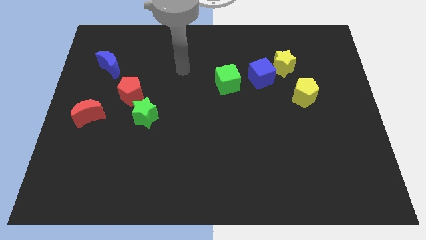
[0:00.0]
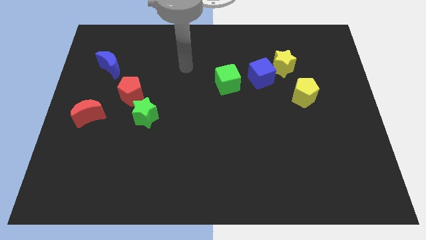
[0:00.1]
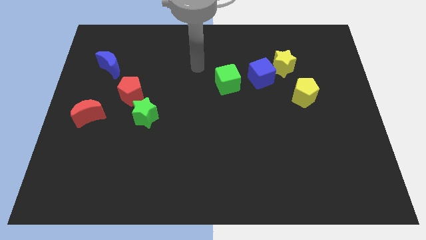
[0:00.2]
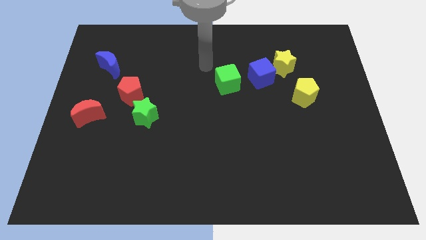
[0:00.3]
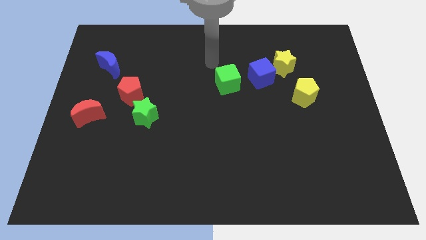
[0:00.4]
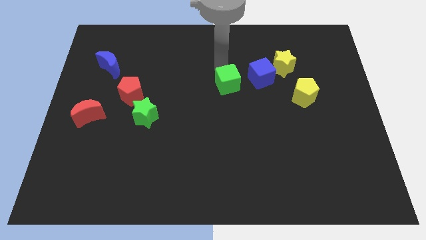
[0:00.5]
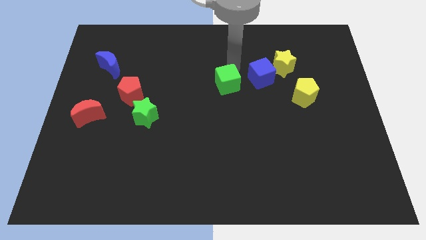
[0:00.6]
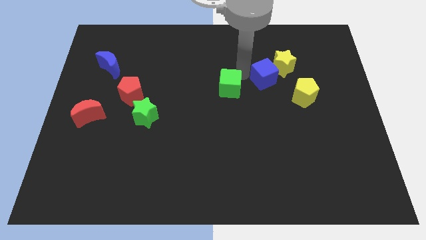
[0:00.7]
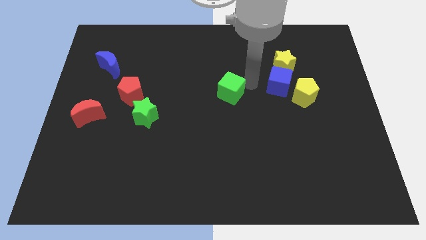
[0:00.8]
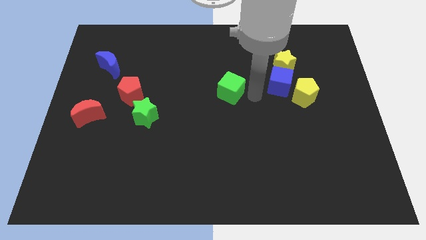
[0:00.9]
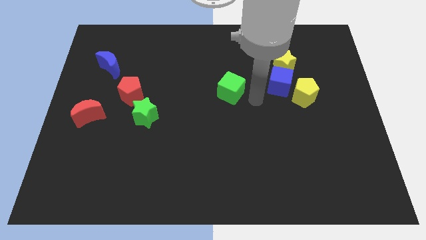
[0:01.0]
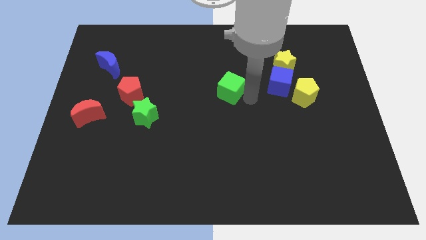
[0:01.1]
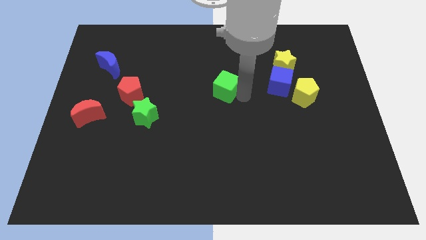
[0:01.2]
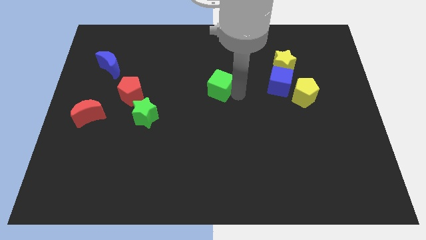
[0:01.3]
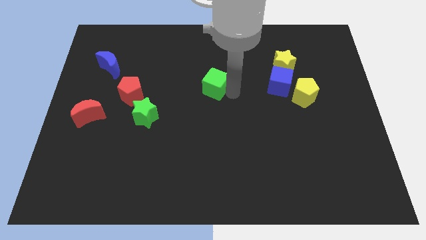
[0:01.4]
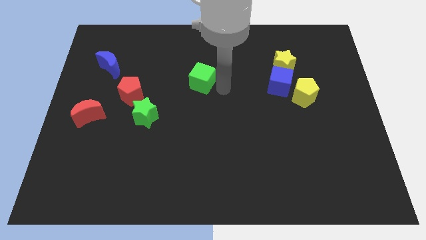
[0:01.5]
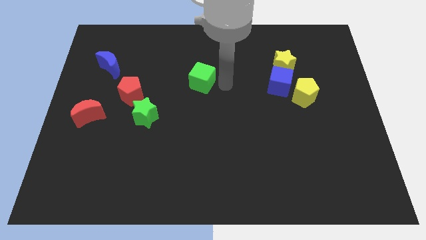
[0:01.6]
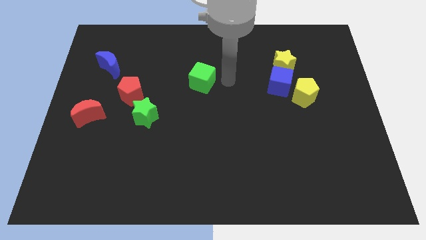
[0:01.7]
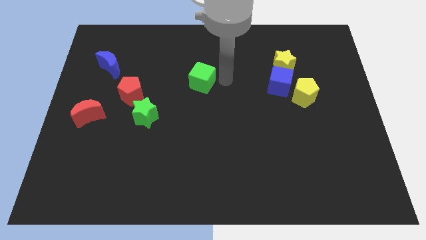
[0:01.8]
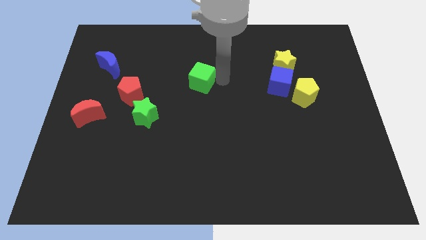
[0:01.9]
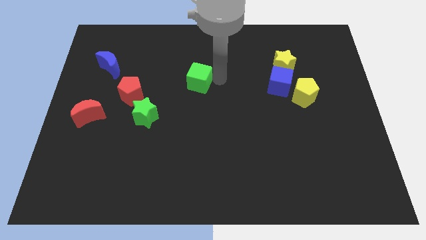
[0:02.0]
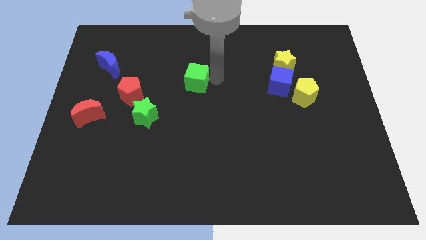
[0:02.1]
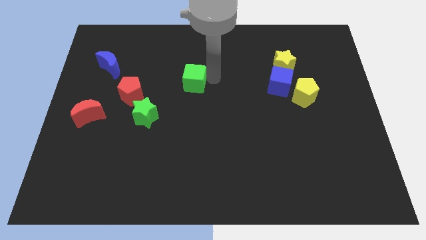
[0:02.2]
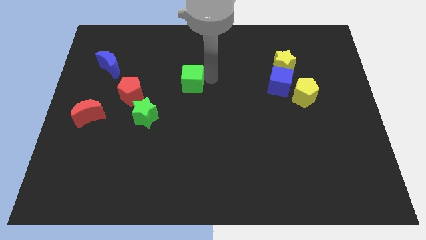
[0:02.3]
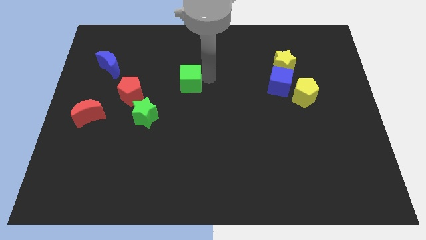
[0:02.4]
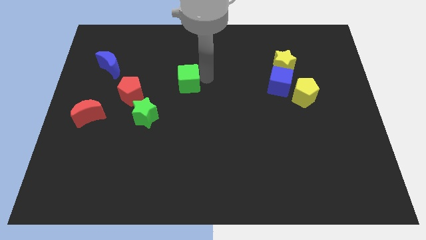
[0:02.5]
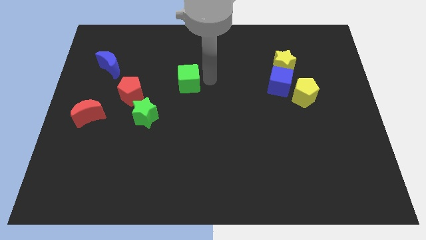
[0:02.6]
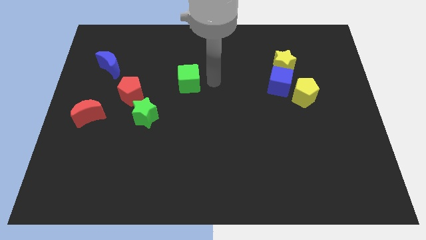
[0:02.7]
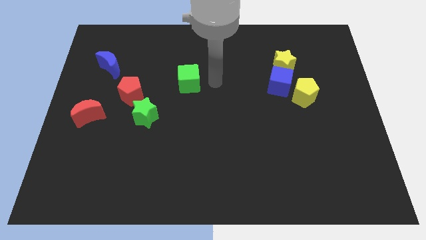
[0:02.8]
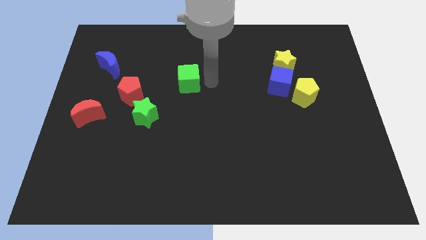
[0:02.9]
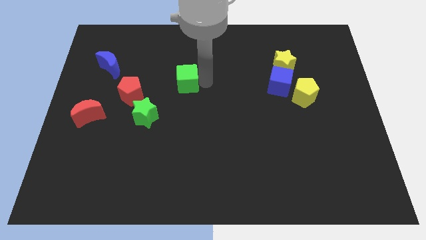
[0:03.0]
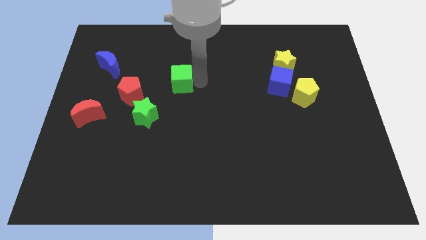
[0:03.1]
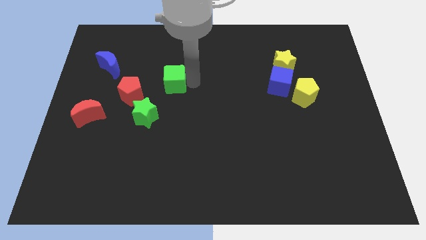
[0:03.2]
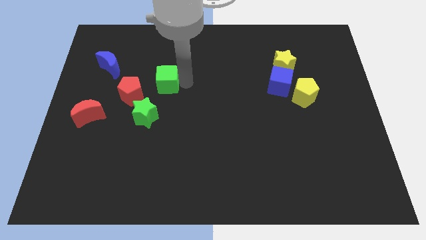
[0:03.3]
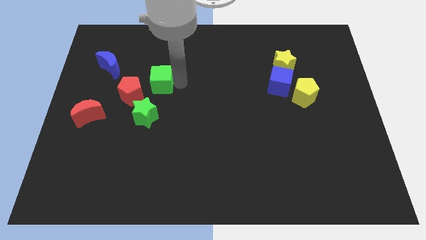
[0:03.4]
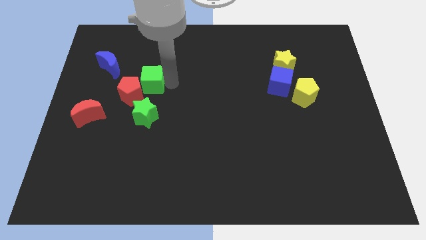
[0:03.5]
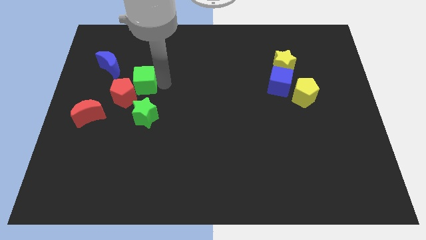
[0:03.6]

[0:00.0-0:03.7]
push the green cube left

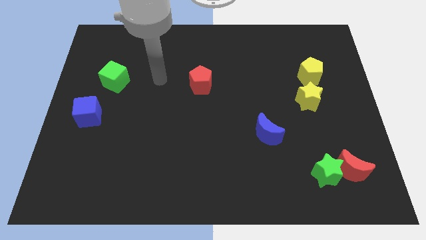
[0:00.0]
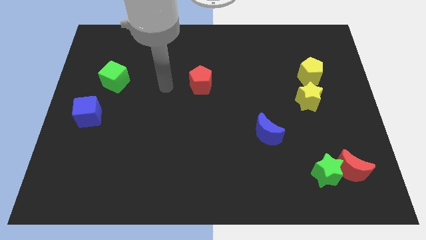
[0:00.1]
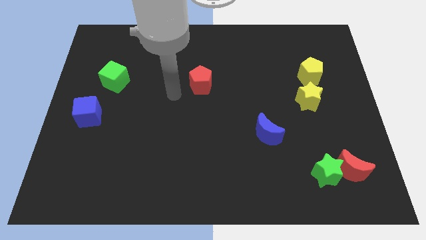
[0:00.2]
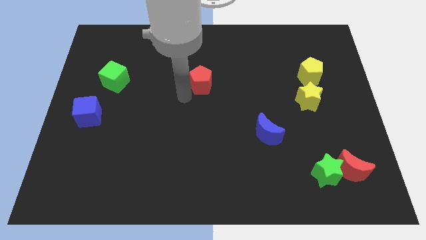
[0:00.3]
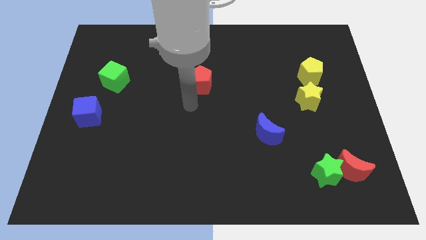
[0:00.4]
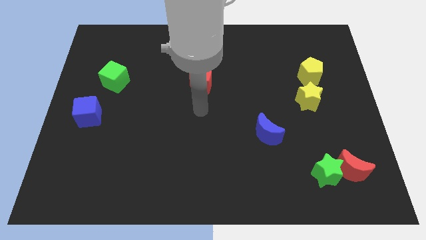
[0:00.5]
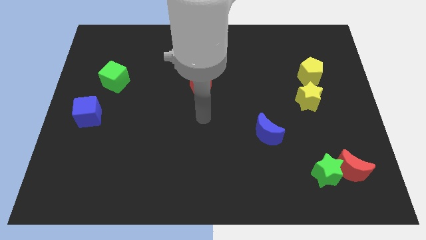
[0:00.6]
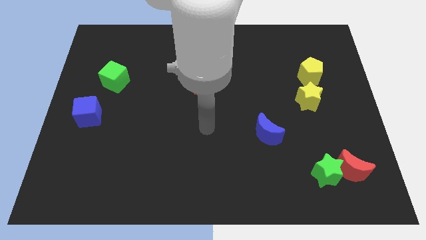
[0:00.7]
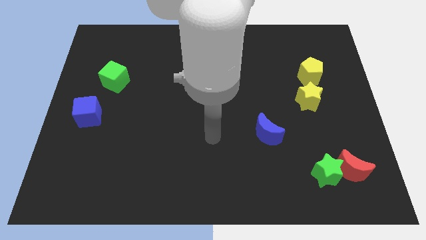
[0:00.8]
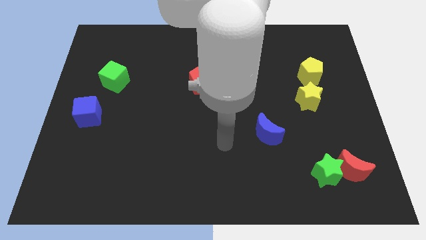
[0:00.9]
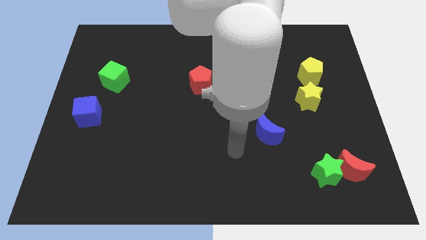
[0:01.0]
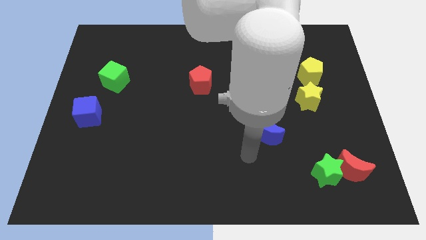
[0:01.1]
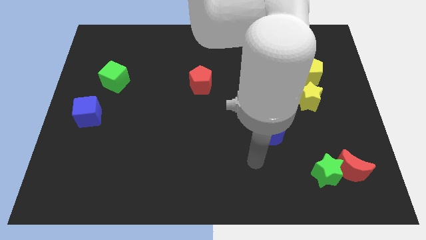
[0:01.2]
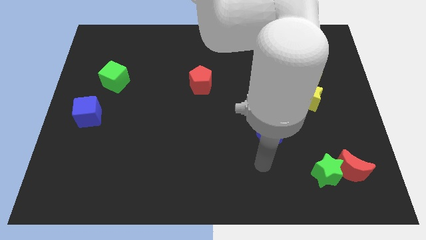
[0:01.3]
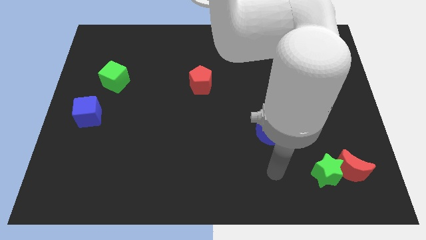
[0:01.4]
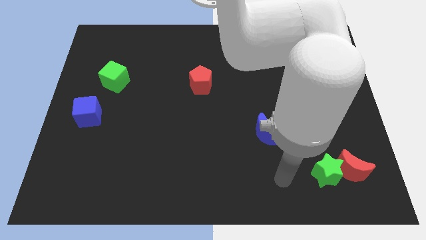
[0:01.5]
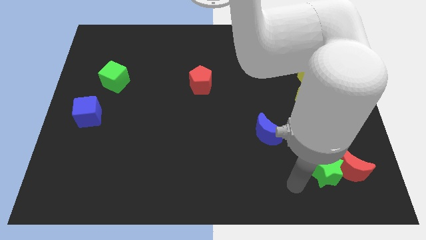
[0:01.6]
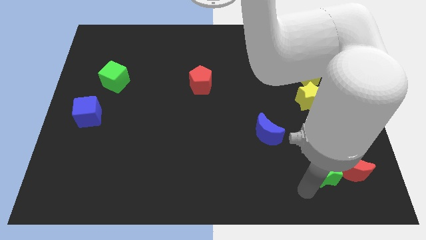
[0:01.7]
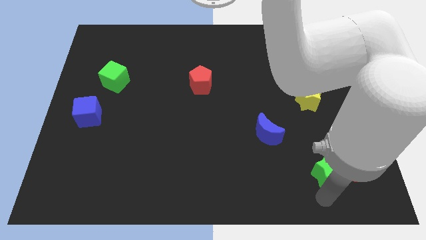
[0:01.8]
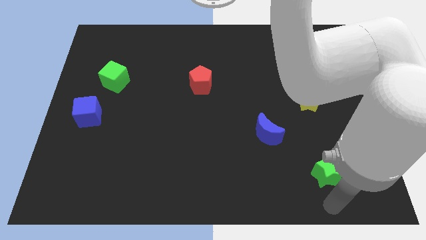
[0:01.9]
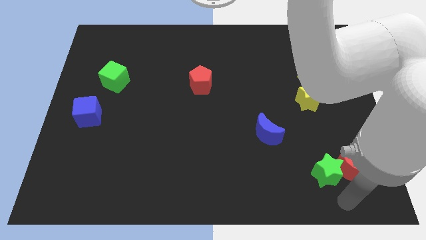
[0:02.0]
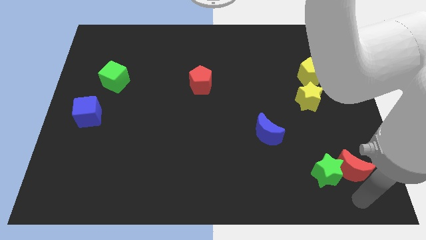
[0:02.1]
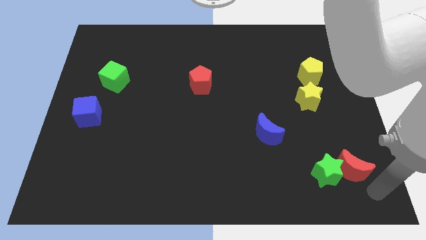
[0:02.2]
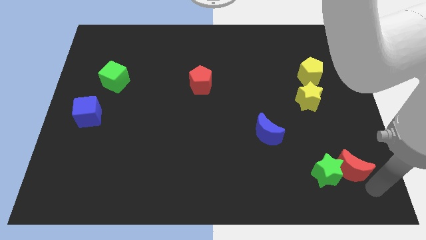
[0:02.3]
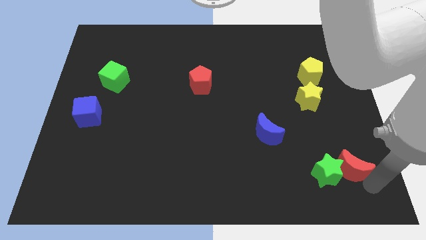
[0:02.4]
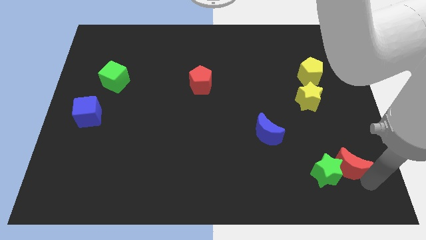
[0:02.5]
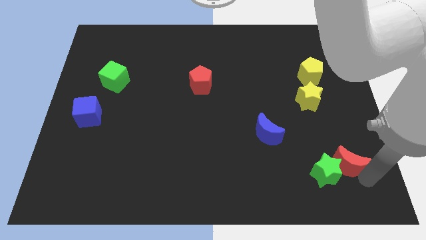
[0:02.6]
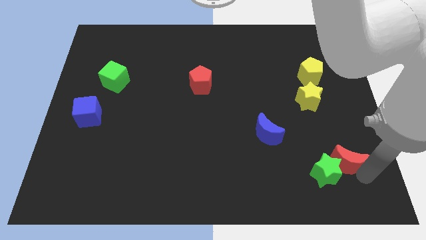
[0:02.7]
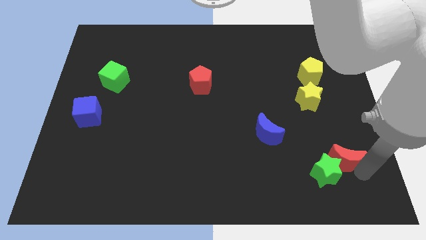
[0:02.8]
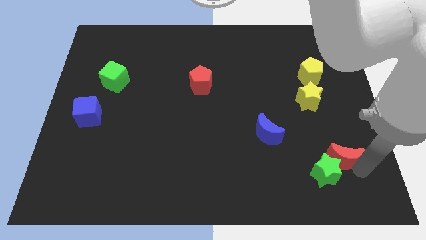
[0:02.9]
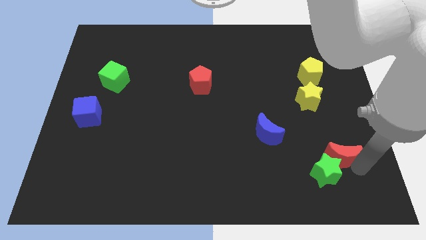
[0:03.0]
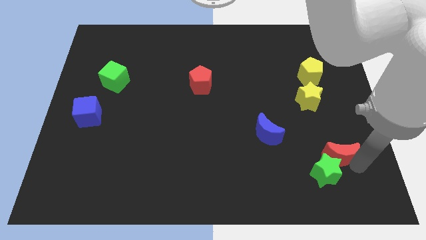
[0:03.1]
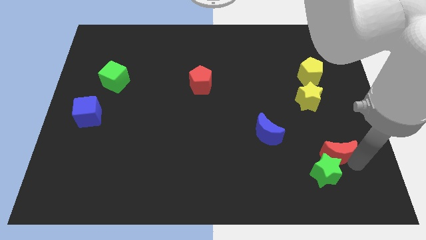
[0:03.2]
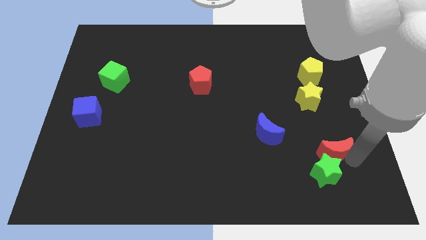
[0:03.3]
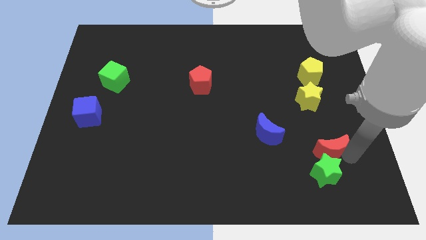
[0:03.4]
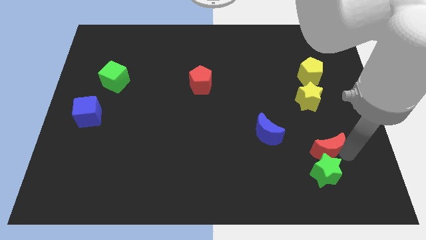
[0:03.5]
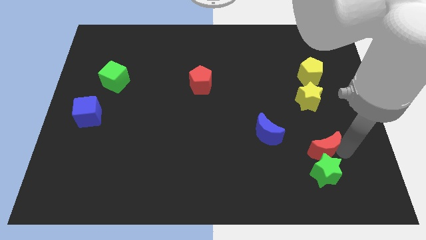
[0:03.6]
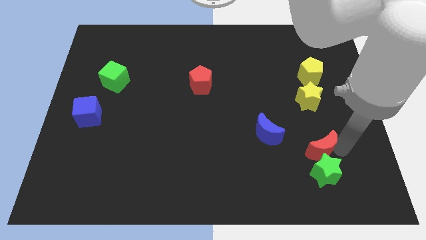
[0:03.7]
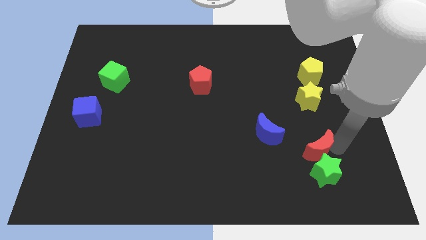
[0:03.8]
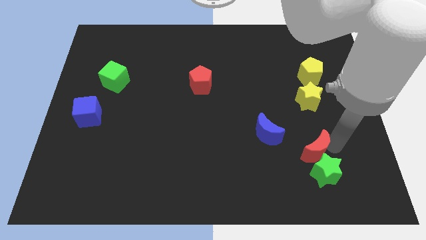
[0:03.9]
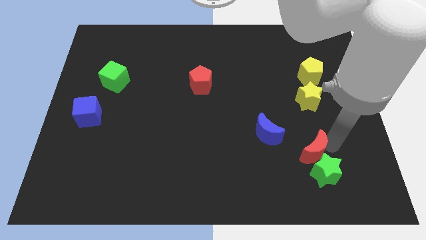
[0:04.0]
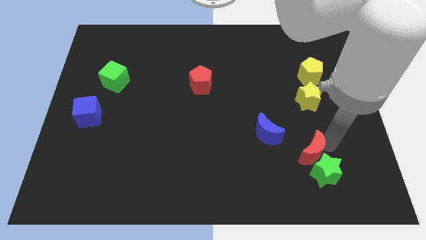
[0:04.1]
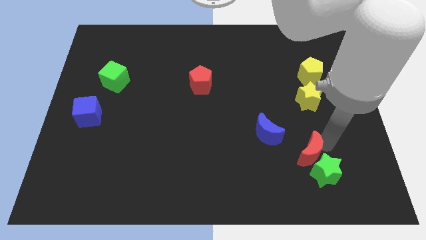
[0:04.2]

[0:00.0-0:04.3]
push the red moon a bit left
